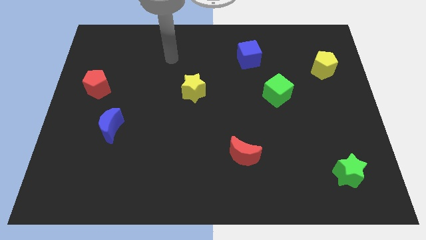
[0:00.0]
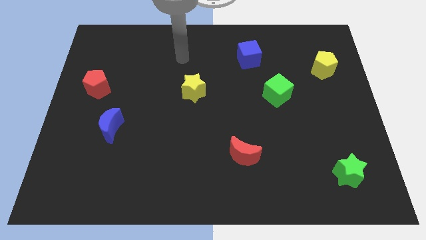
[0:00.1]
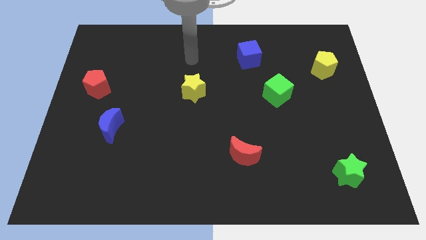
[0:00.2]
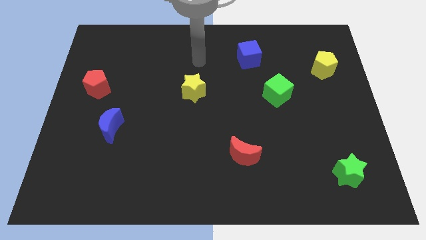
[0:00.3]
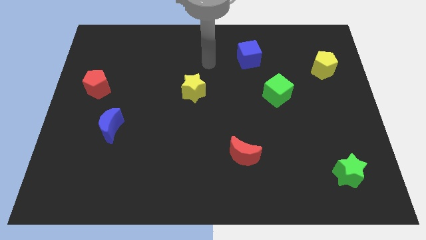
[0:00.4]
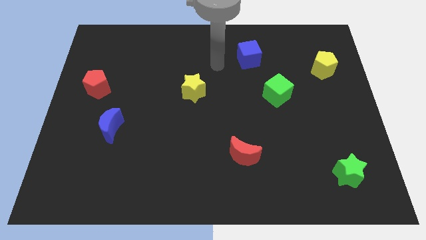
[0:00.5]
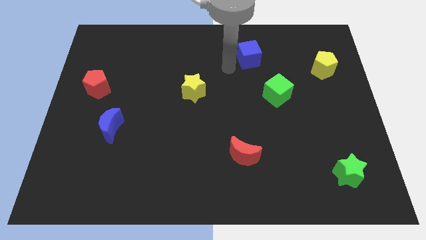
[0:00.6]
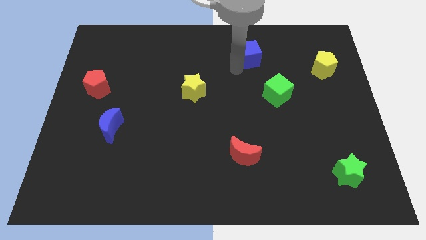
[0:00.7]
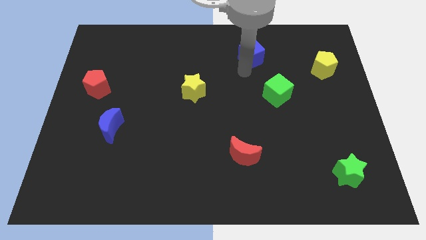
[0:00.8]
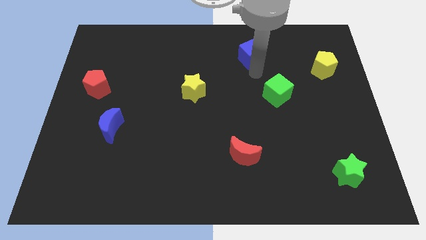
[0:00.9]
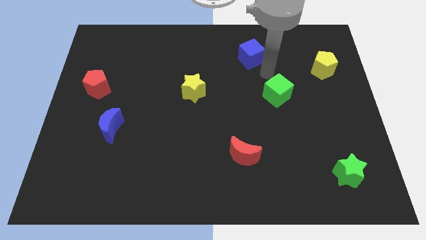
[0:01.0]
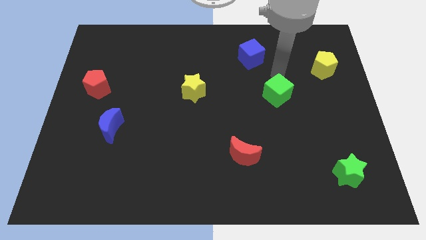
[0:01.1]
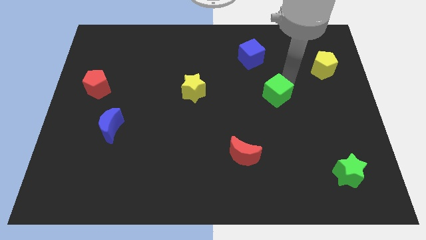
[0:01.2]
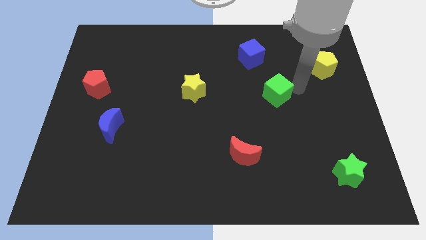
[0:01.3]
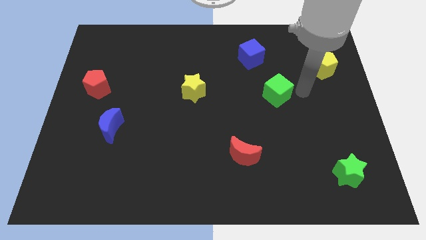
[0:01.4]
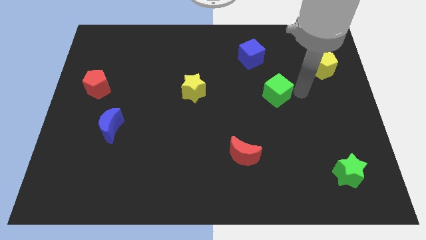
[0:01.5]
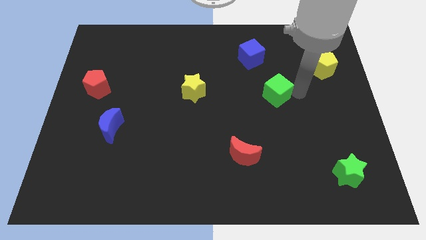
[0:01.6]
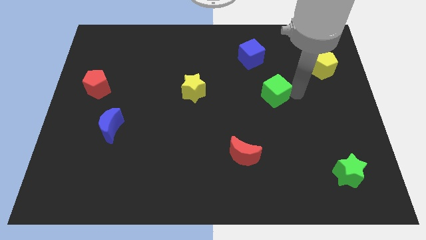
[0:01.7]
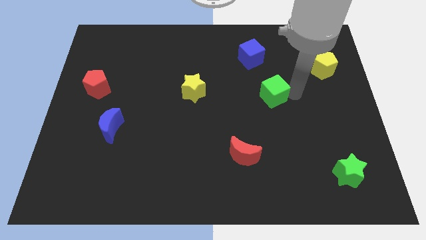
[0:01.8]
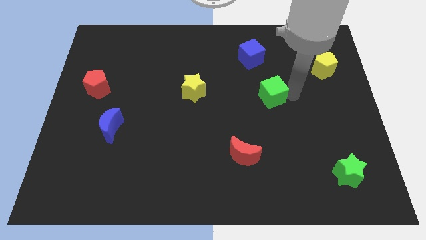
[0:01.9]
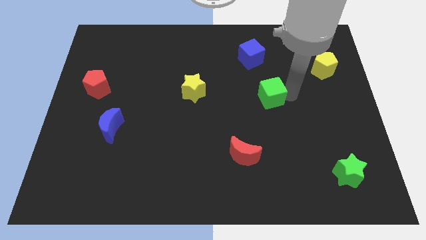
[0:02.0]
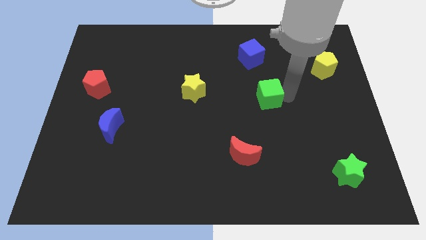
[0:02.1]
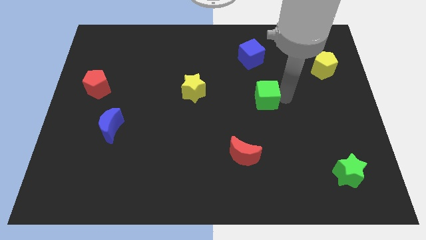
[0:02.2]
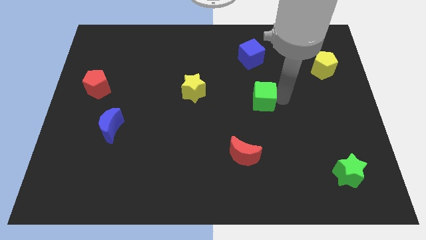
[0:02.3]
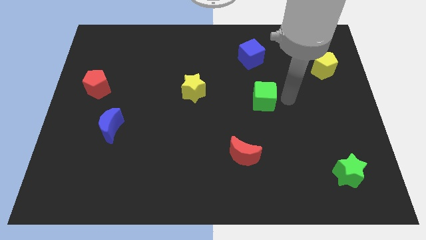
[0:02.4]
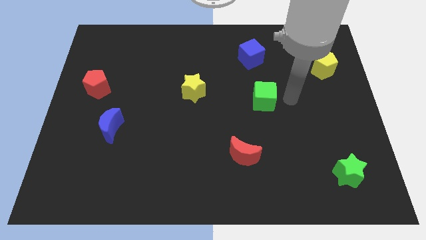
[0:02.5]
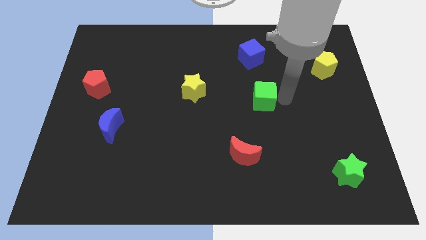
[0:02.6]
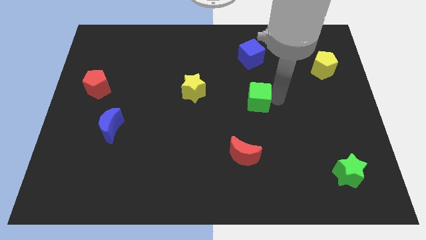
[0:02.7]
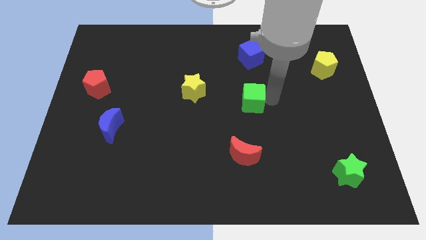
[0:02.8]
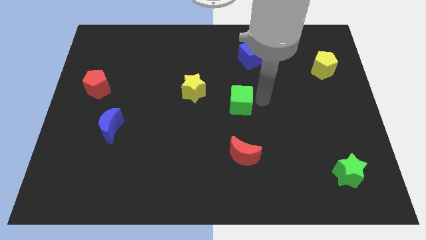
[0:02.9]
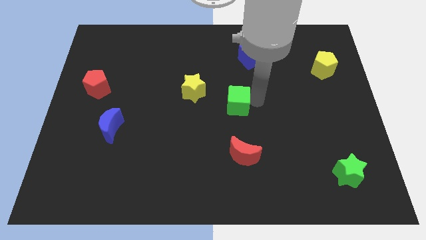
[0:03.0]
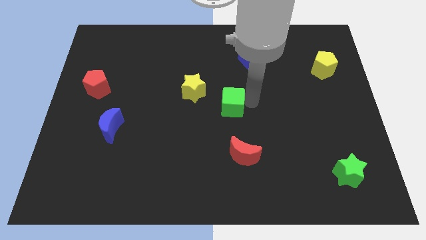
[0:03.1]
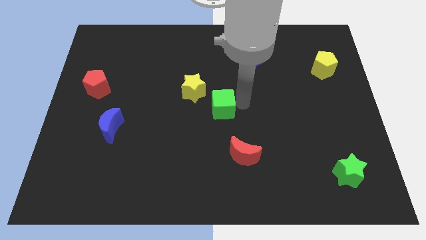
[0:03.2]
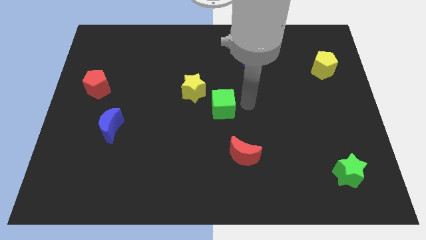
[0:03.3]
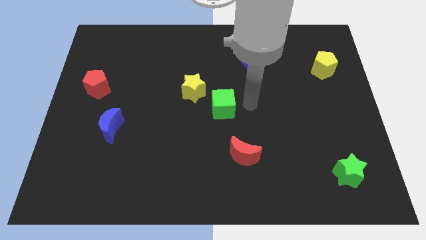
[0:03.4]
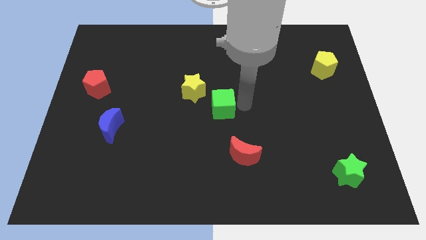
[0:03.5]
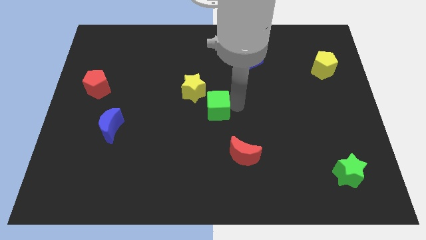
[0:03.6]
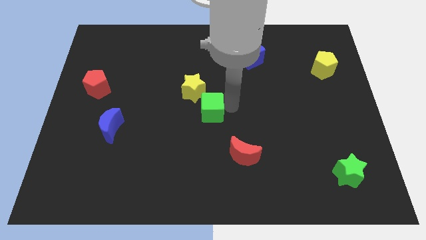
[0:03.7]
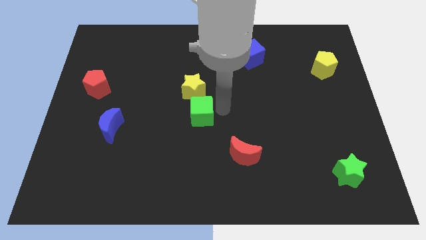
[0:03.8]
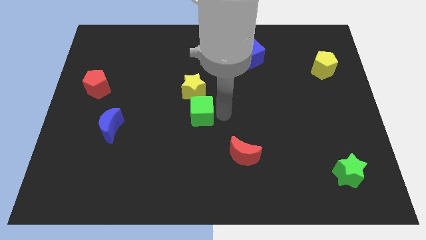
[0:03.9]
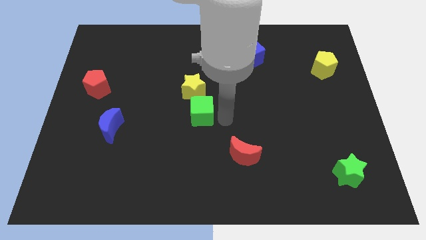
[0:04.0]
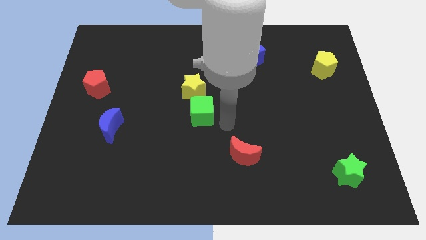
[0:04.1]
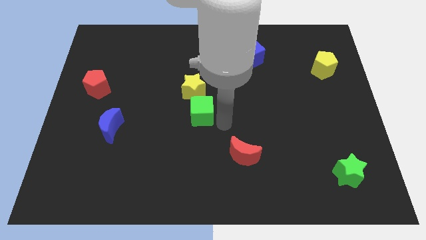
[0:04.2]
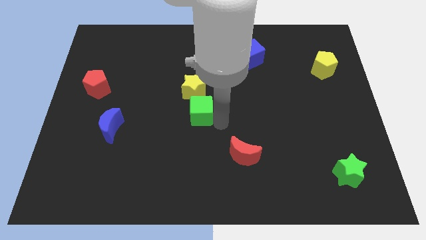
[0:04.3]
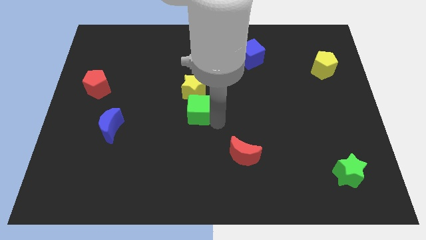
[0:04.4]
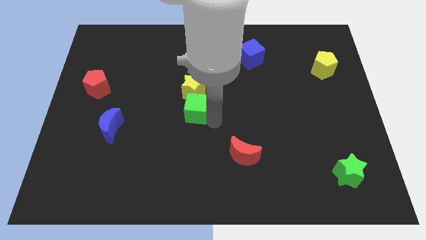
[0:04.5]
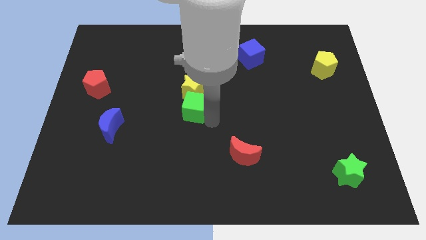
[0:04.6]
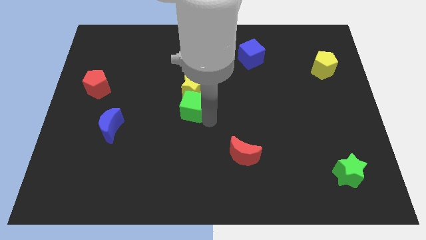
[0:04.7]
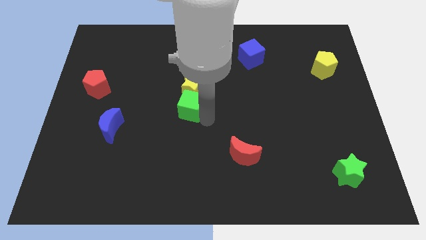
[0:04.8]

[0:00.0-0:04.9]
push the green cube to the left

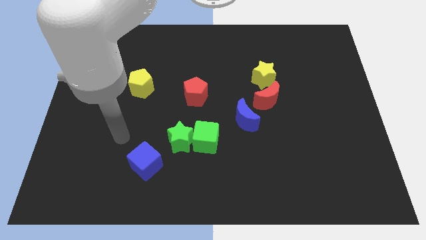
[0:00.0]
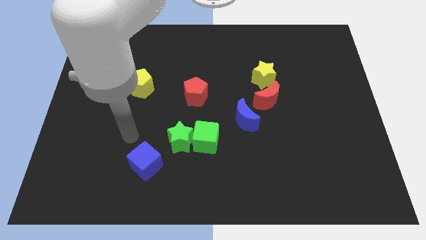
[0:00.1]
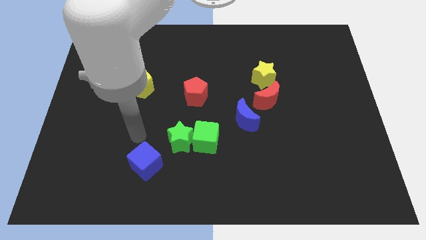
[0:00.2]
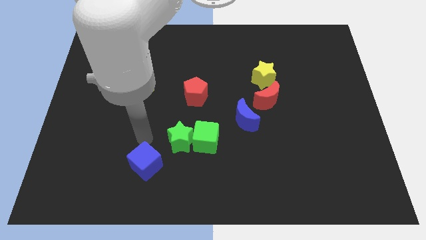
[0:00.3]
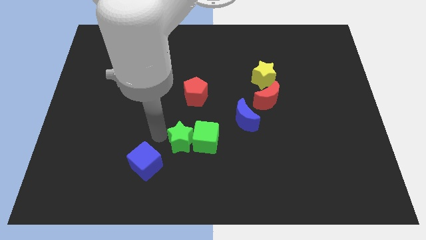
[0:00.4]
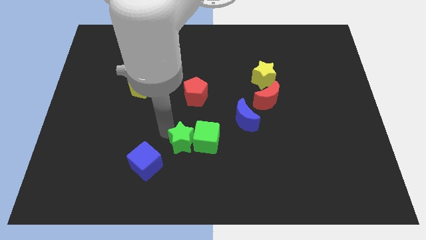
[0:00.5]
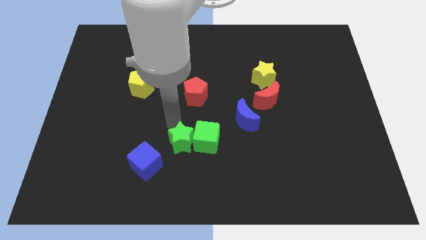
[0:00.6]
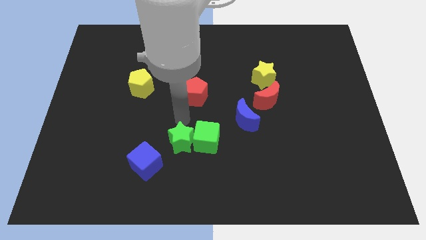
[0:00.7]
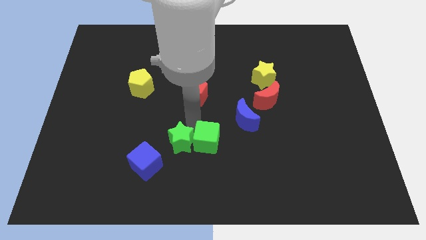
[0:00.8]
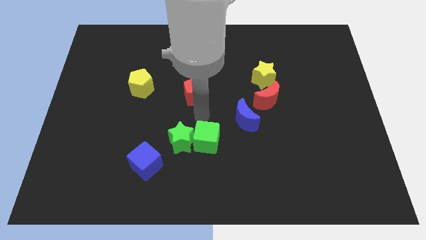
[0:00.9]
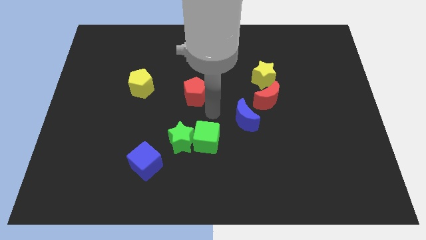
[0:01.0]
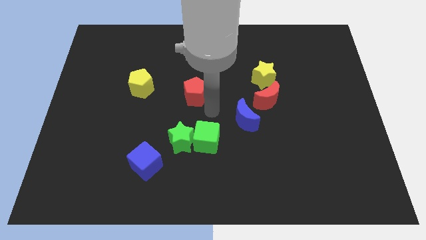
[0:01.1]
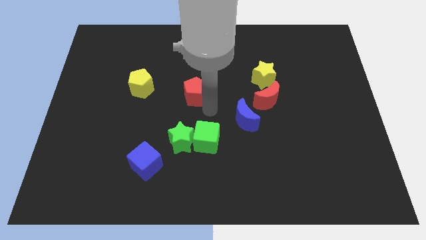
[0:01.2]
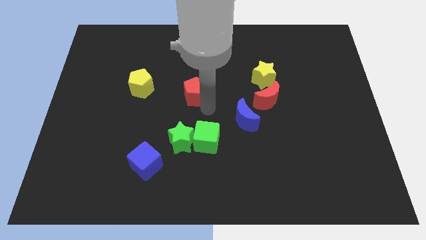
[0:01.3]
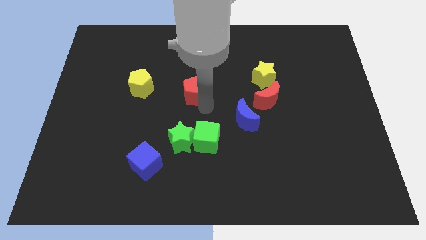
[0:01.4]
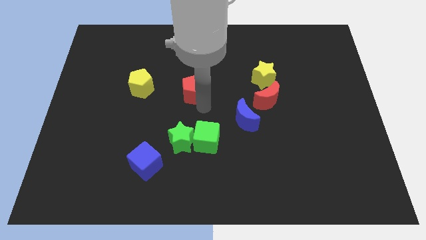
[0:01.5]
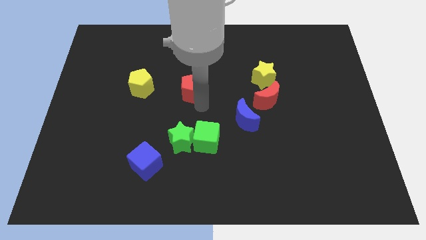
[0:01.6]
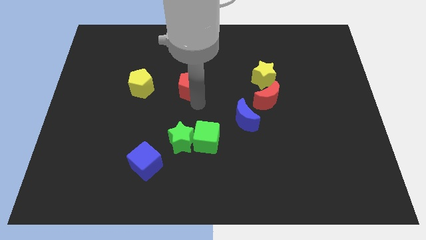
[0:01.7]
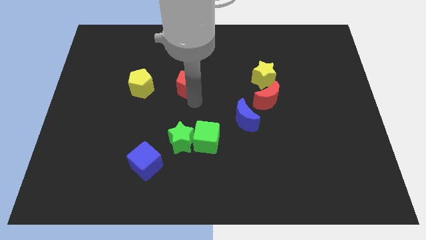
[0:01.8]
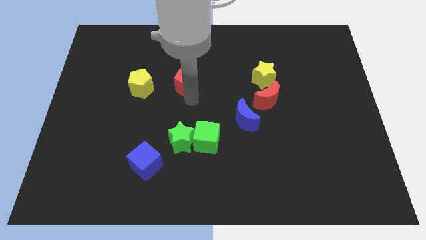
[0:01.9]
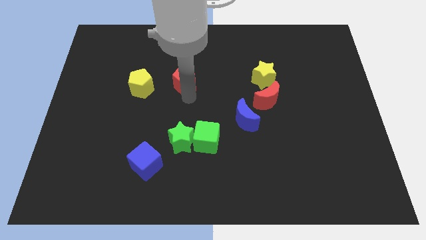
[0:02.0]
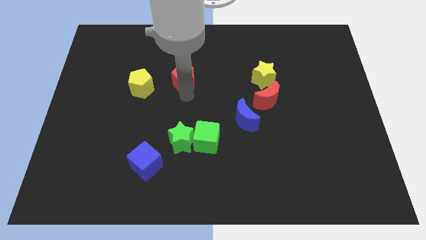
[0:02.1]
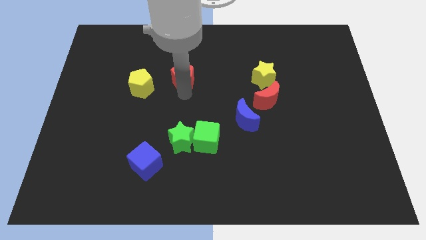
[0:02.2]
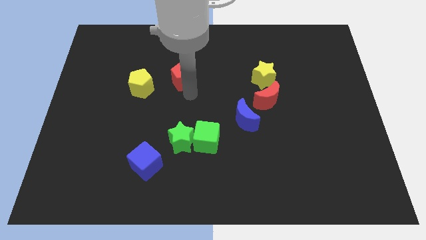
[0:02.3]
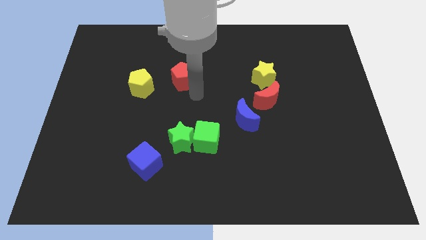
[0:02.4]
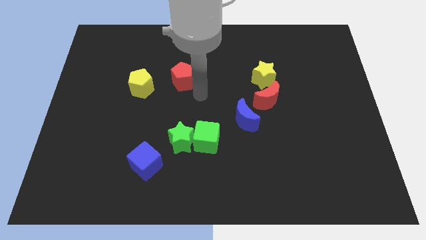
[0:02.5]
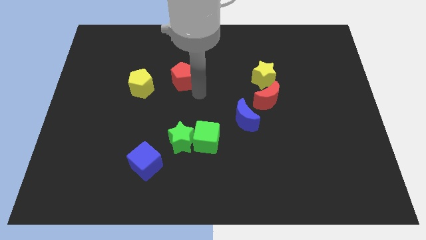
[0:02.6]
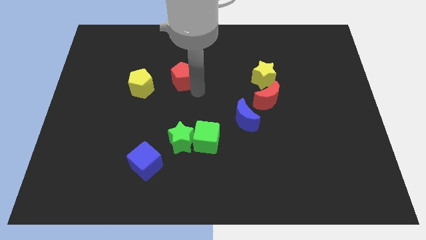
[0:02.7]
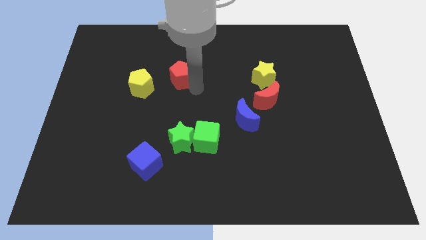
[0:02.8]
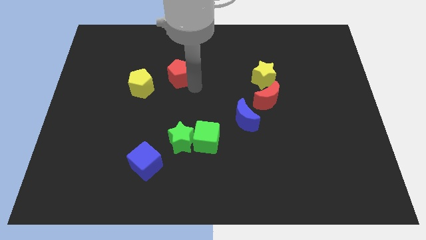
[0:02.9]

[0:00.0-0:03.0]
slide the red pentagon up and to the left somewhat
